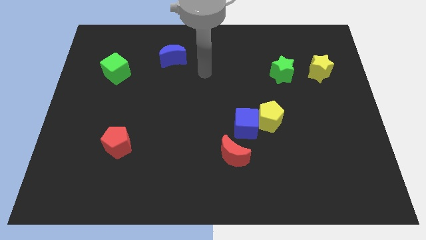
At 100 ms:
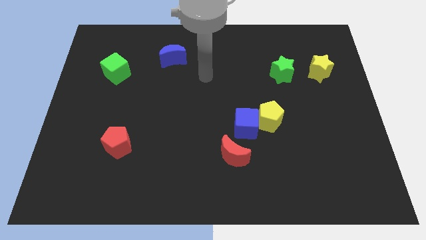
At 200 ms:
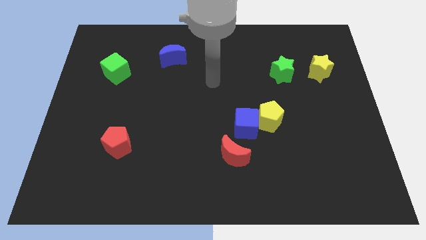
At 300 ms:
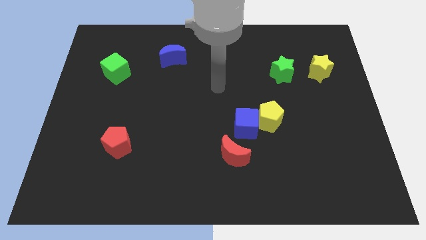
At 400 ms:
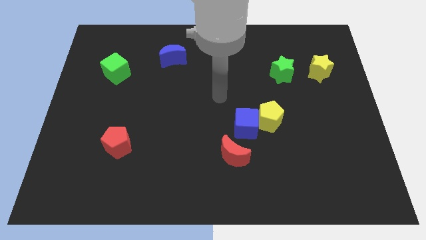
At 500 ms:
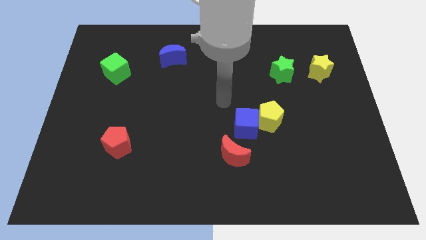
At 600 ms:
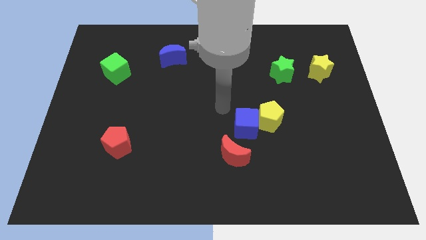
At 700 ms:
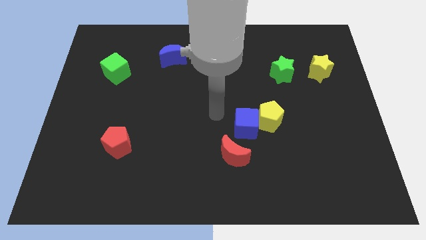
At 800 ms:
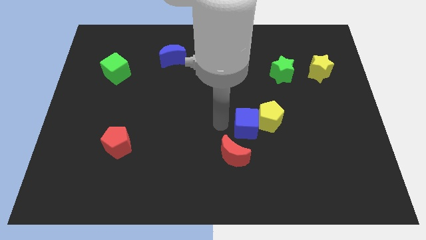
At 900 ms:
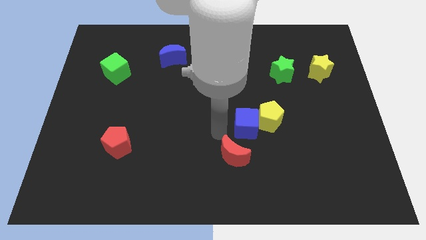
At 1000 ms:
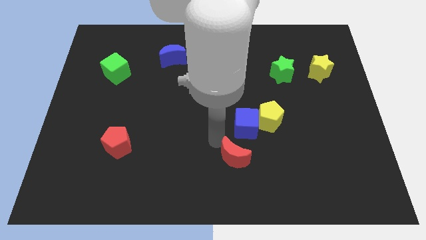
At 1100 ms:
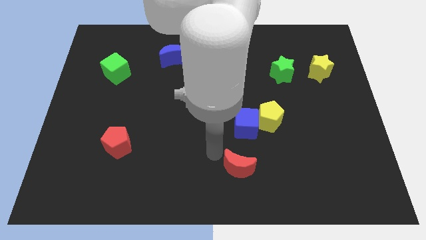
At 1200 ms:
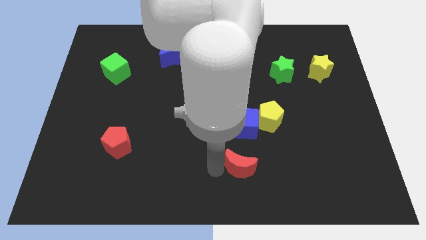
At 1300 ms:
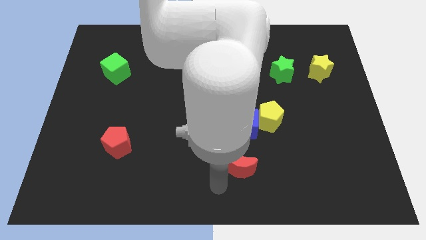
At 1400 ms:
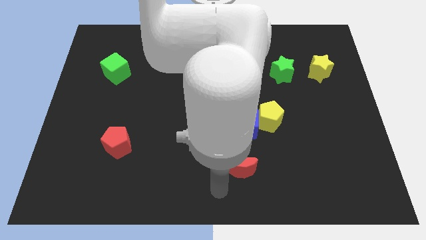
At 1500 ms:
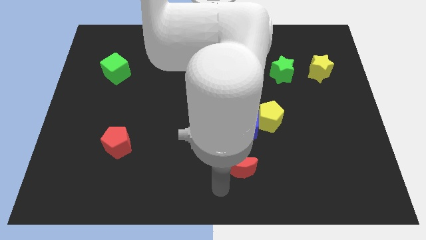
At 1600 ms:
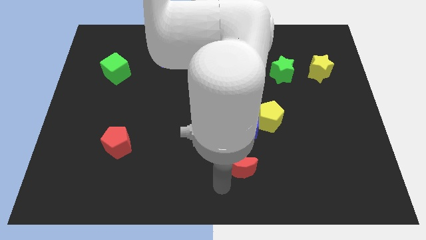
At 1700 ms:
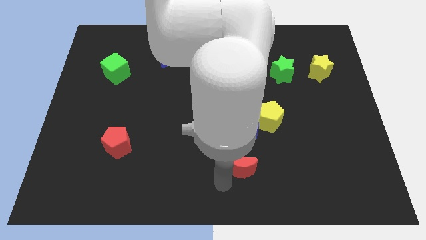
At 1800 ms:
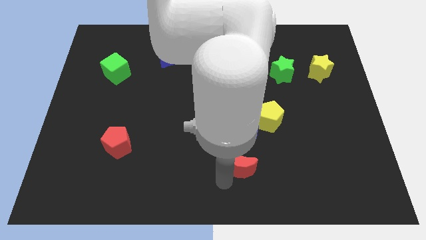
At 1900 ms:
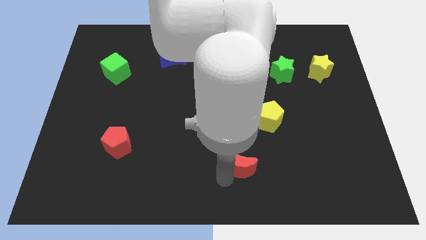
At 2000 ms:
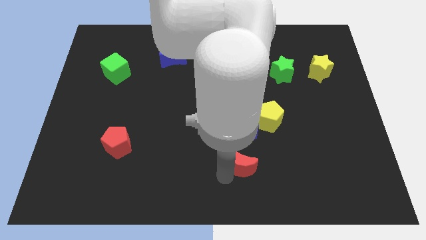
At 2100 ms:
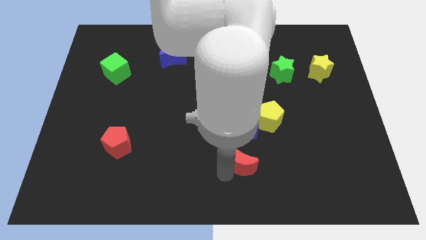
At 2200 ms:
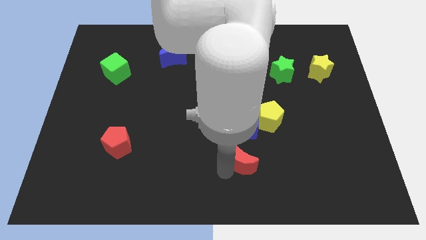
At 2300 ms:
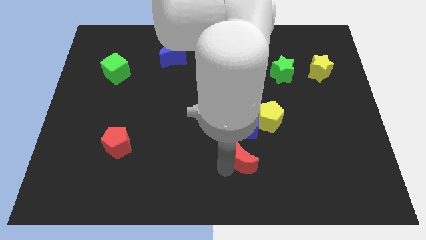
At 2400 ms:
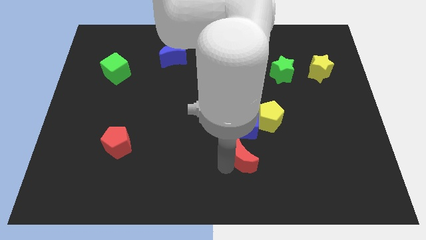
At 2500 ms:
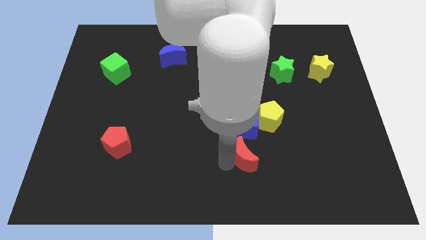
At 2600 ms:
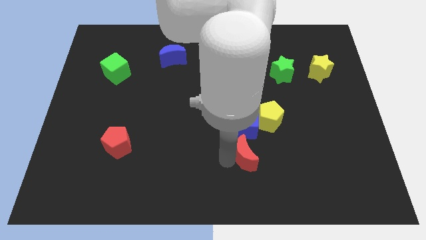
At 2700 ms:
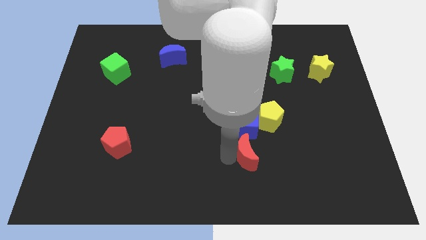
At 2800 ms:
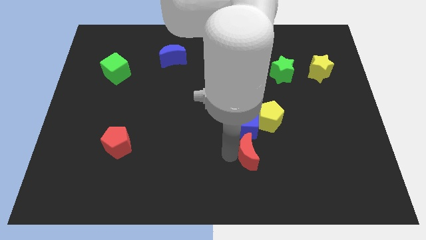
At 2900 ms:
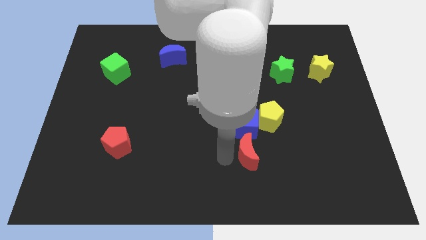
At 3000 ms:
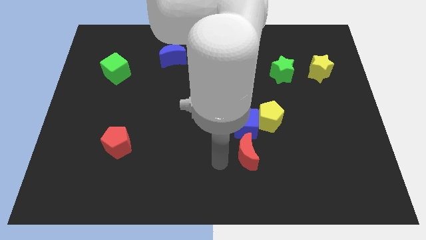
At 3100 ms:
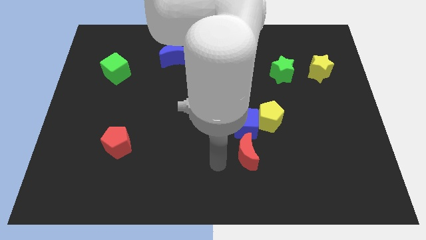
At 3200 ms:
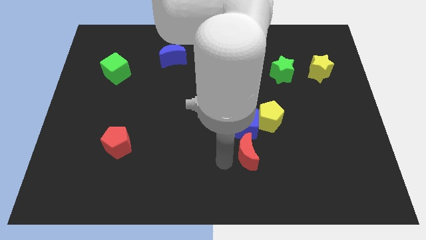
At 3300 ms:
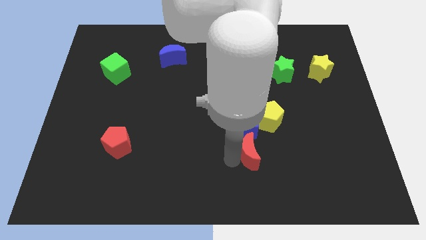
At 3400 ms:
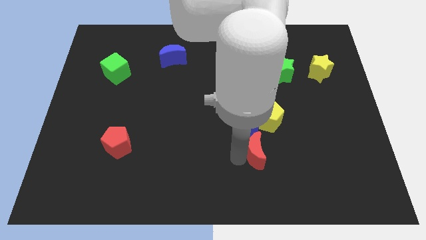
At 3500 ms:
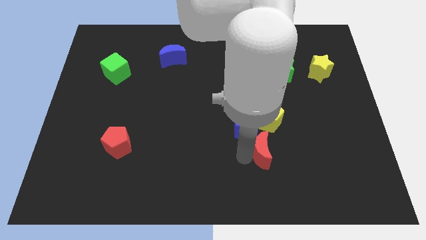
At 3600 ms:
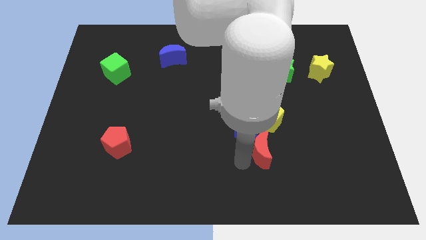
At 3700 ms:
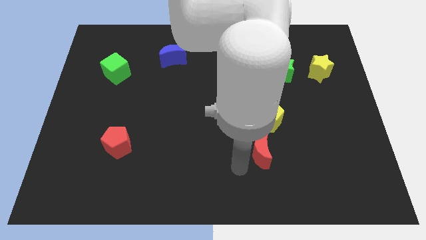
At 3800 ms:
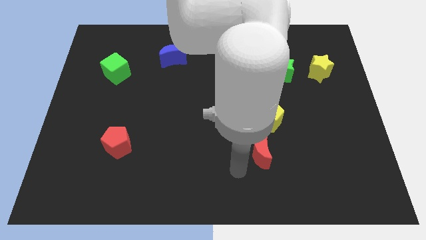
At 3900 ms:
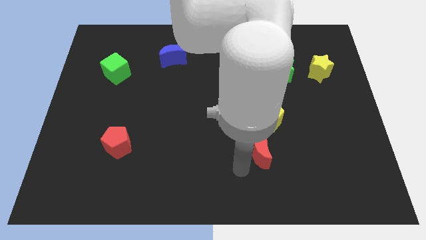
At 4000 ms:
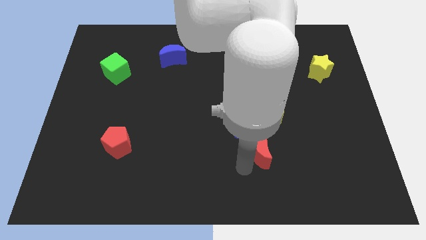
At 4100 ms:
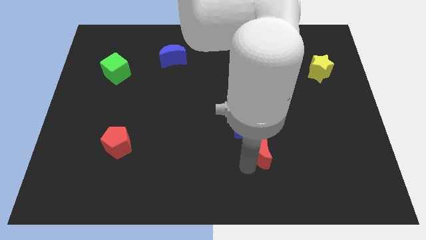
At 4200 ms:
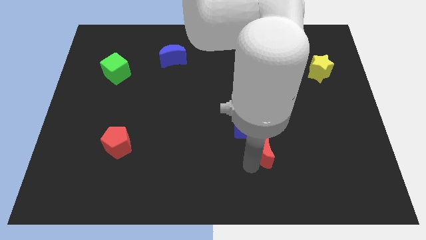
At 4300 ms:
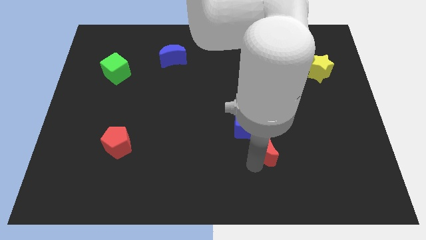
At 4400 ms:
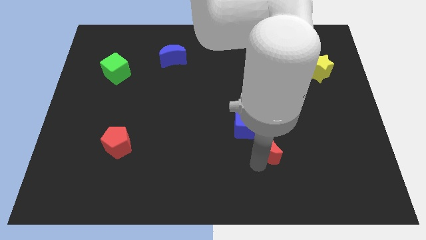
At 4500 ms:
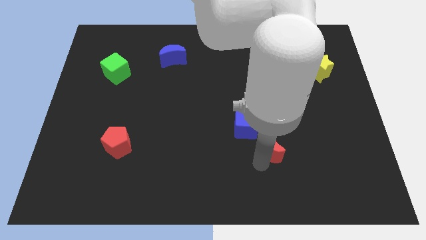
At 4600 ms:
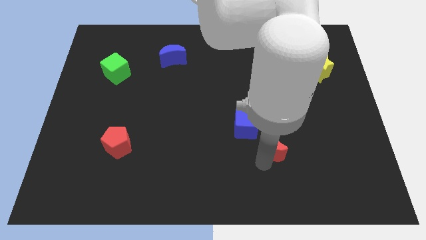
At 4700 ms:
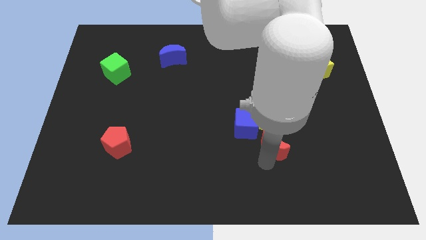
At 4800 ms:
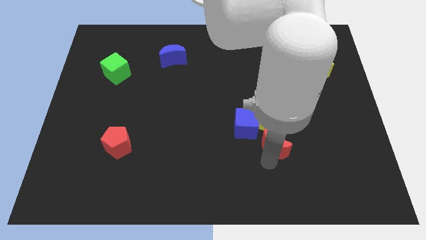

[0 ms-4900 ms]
push the red moon somewhat upwards and to the right

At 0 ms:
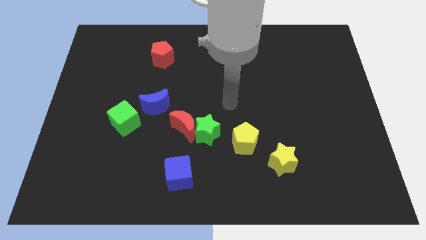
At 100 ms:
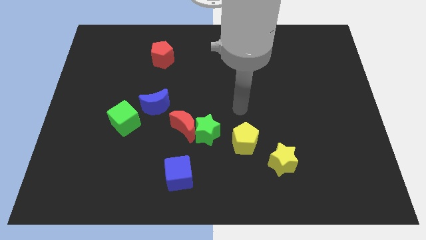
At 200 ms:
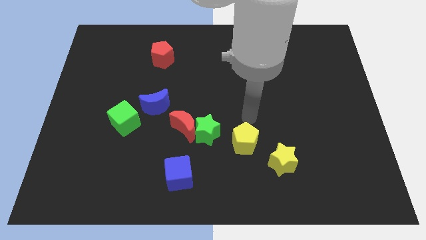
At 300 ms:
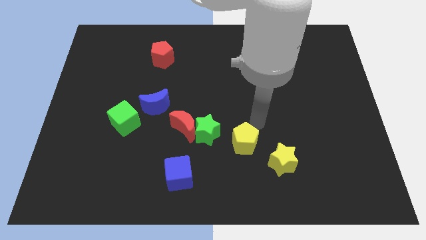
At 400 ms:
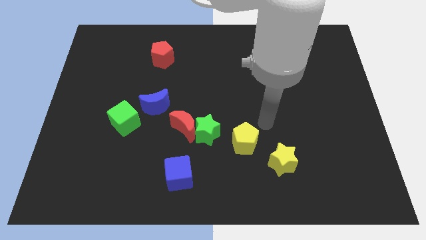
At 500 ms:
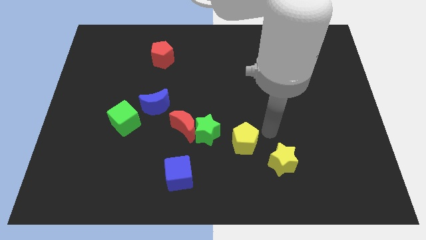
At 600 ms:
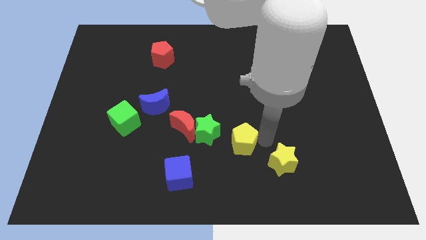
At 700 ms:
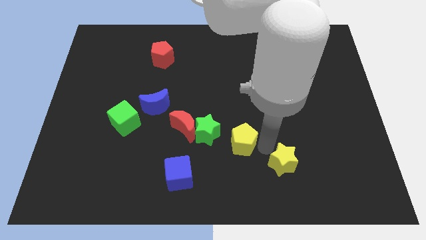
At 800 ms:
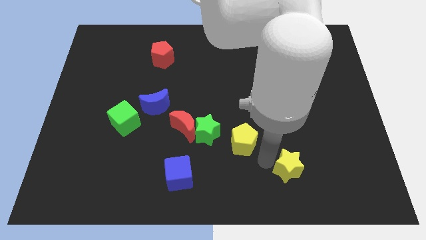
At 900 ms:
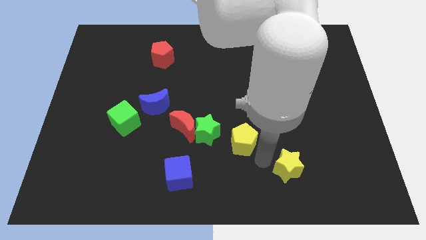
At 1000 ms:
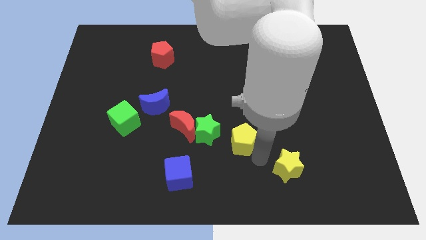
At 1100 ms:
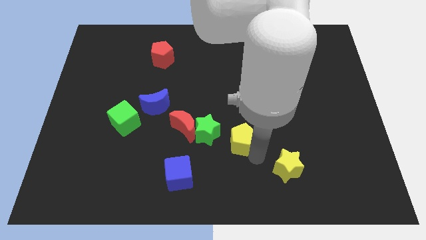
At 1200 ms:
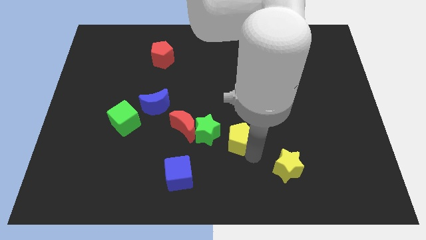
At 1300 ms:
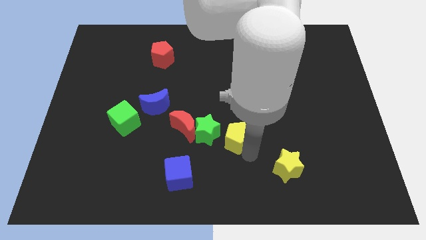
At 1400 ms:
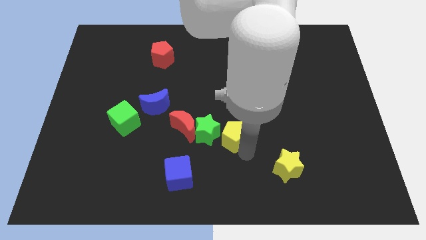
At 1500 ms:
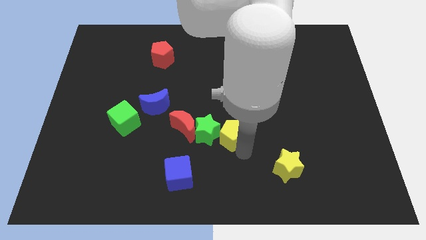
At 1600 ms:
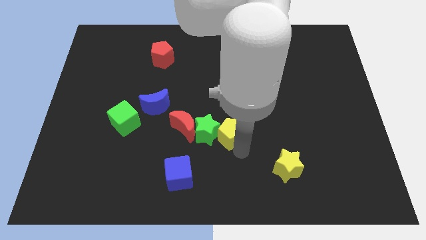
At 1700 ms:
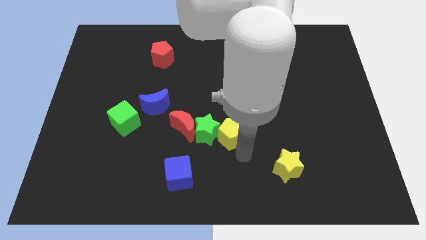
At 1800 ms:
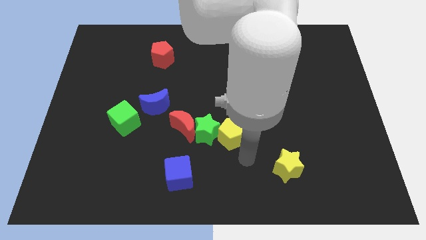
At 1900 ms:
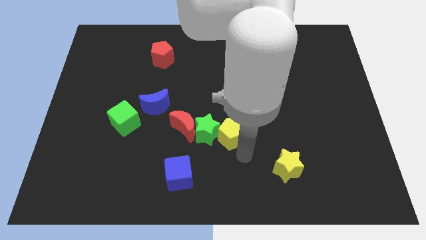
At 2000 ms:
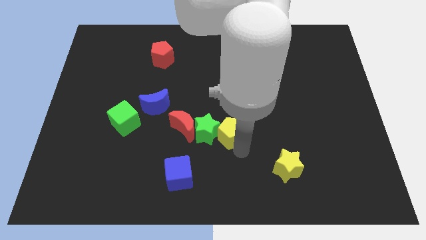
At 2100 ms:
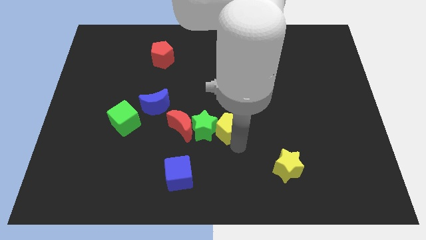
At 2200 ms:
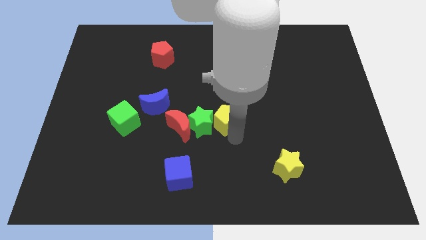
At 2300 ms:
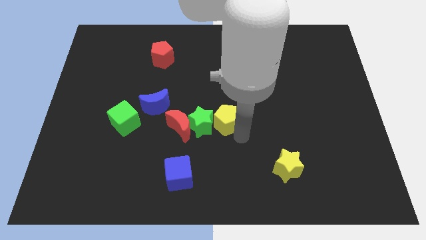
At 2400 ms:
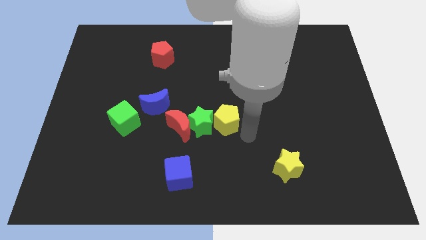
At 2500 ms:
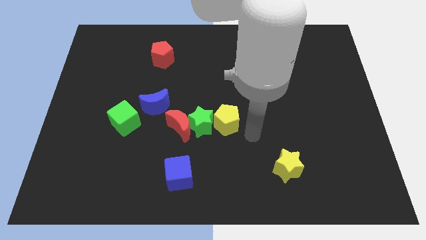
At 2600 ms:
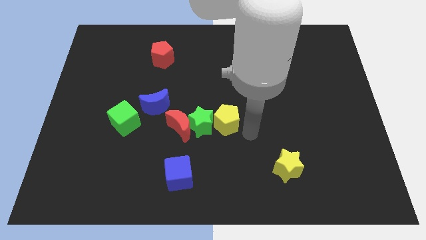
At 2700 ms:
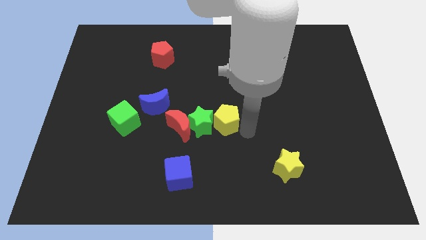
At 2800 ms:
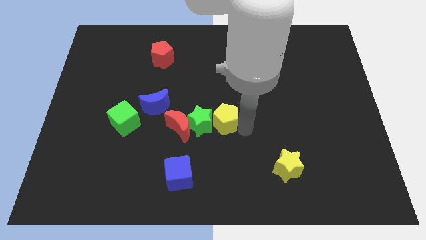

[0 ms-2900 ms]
slightly move the yellow pentagon up and to the left diagonally

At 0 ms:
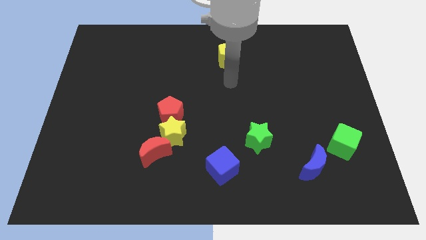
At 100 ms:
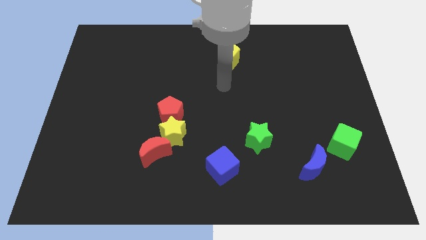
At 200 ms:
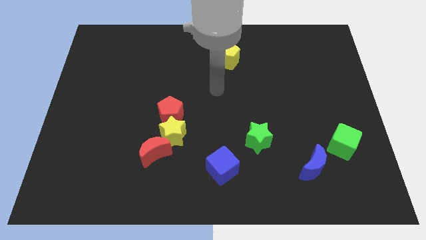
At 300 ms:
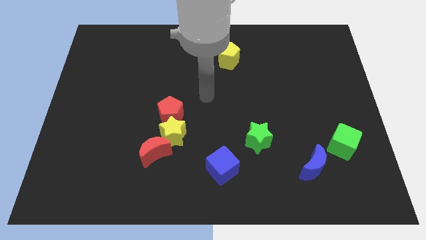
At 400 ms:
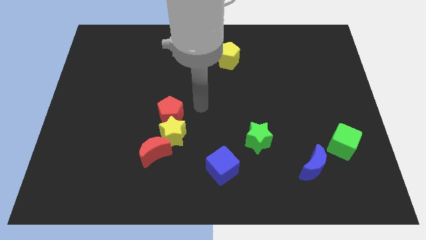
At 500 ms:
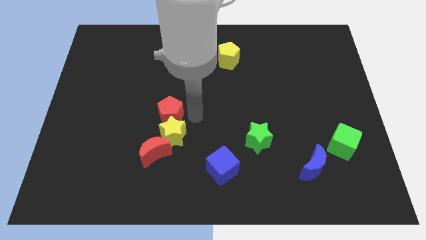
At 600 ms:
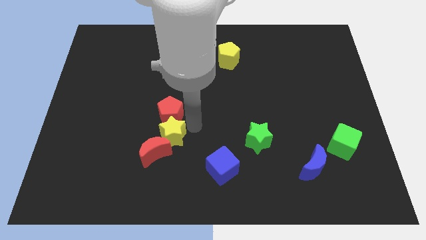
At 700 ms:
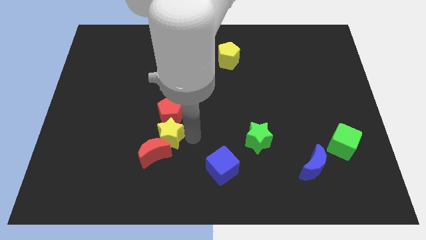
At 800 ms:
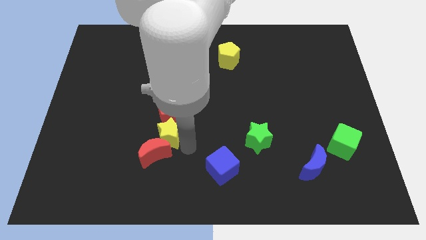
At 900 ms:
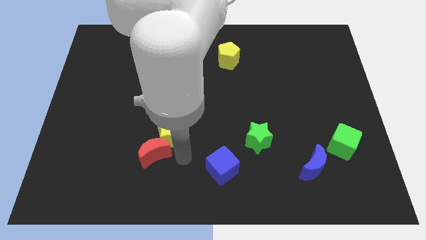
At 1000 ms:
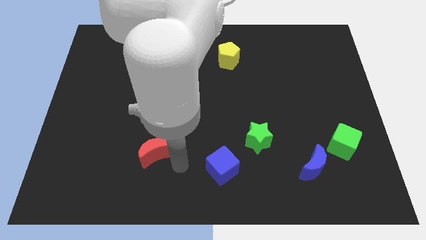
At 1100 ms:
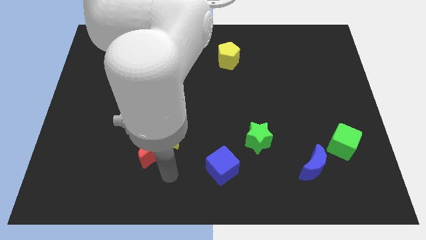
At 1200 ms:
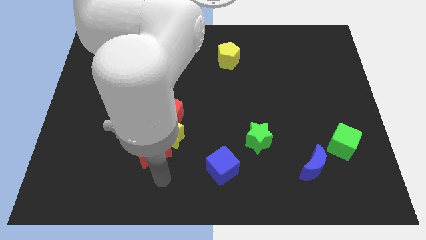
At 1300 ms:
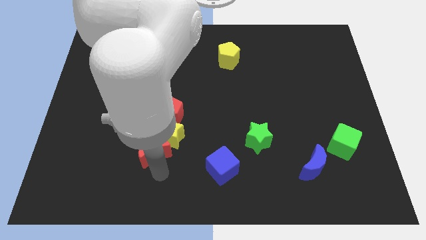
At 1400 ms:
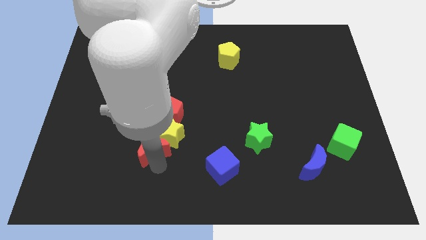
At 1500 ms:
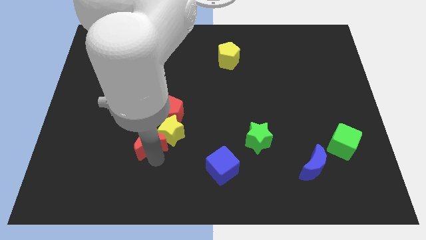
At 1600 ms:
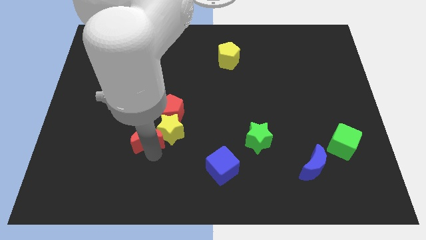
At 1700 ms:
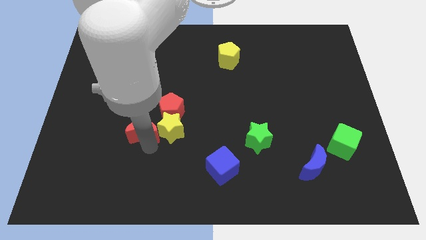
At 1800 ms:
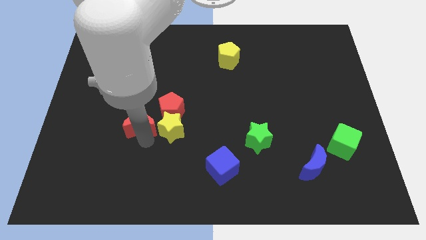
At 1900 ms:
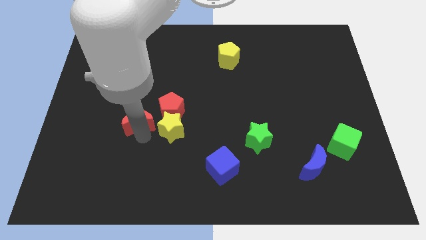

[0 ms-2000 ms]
push the red moon upwards slightly
